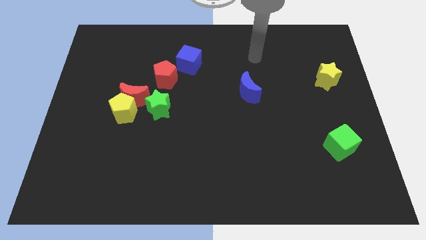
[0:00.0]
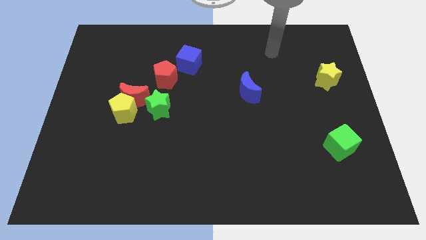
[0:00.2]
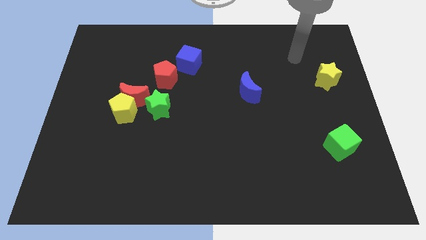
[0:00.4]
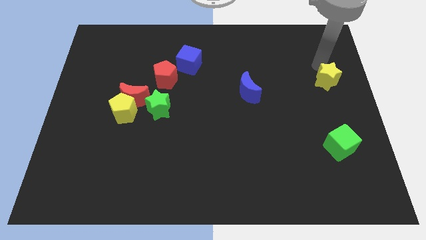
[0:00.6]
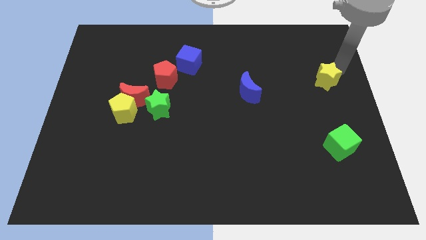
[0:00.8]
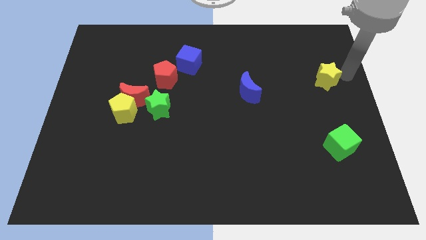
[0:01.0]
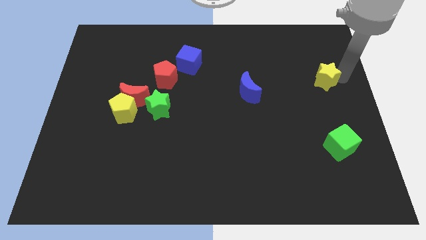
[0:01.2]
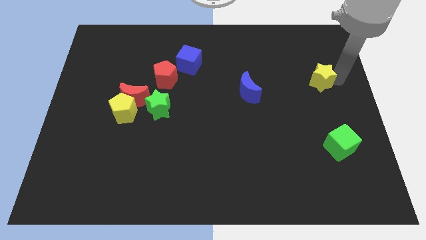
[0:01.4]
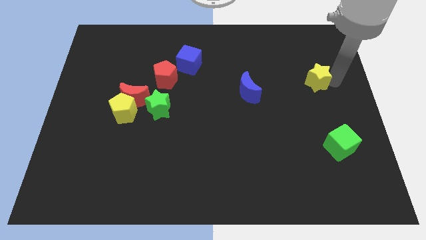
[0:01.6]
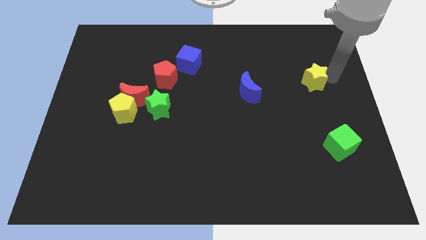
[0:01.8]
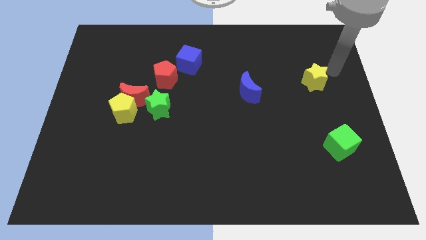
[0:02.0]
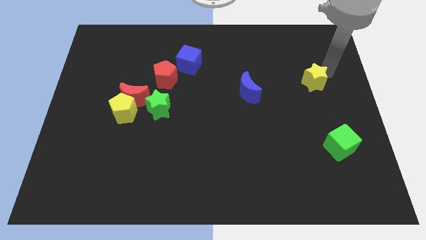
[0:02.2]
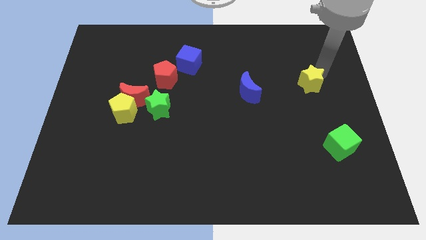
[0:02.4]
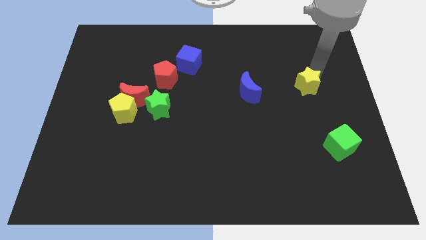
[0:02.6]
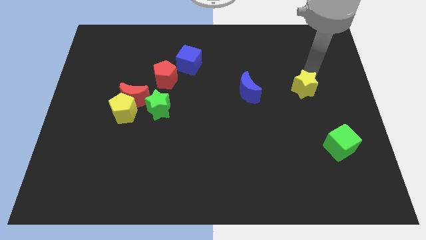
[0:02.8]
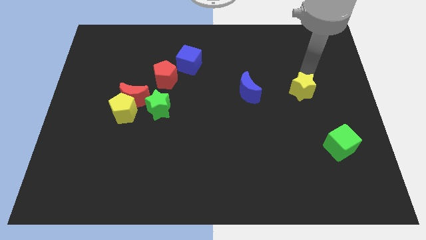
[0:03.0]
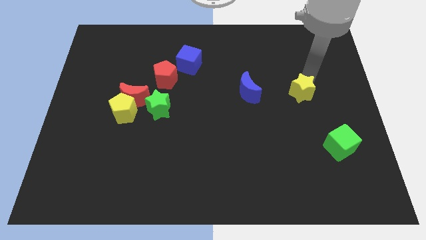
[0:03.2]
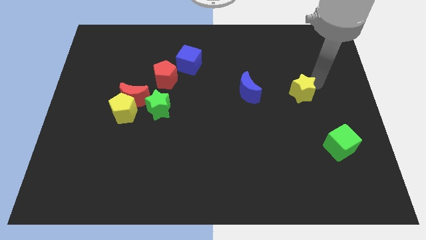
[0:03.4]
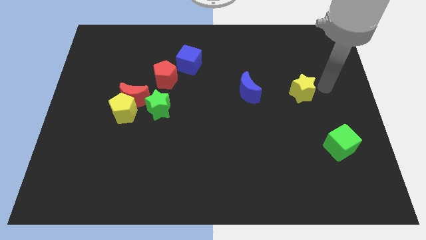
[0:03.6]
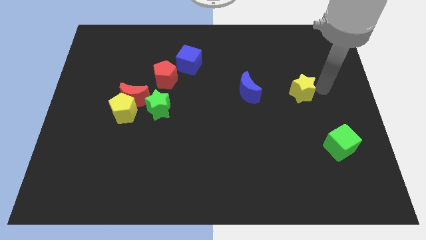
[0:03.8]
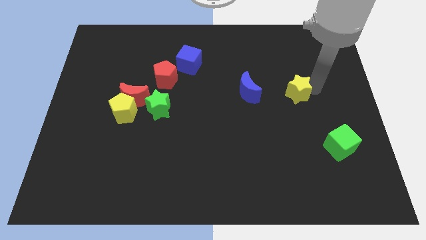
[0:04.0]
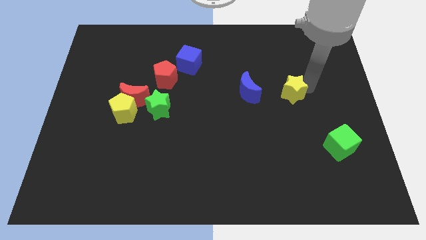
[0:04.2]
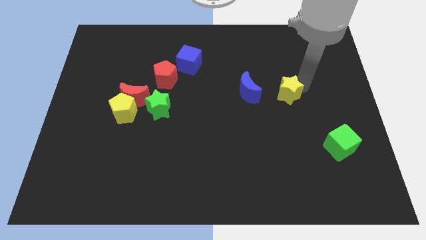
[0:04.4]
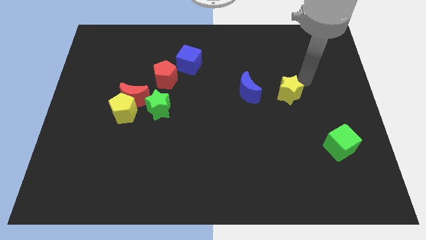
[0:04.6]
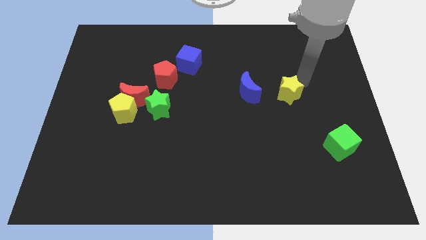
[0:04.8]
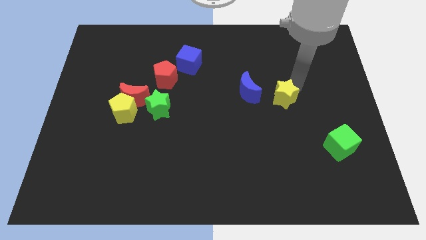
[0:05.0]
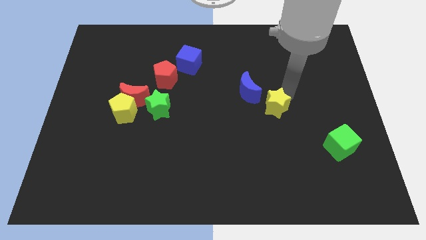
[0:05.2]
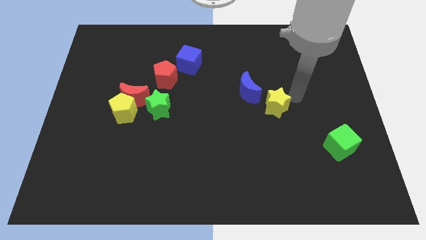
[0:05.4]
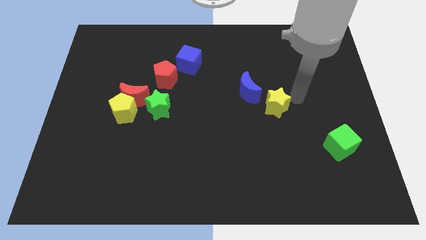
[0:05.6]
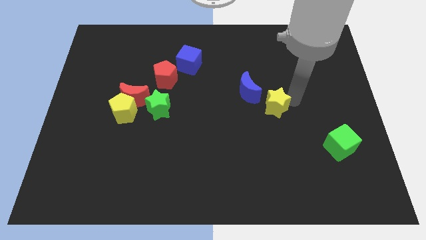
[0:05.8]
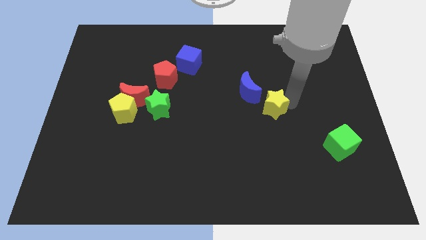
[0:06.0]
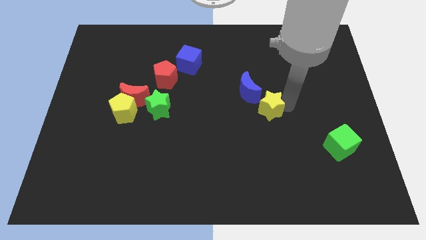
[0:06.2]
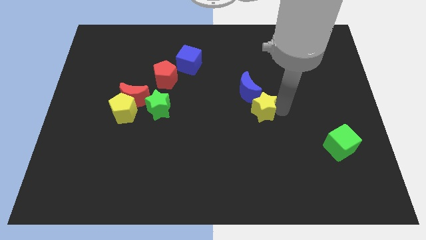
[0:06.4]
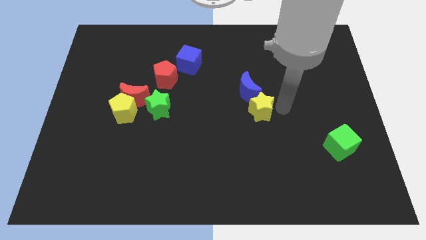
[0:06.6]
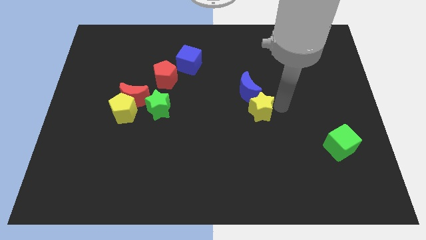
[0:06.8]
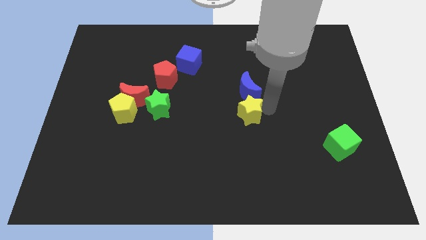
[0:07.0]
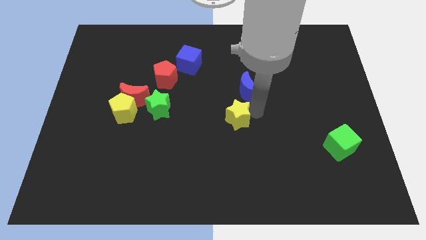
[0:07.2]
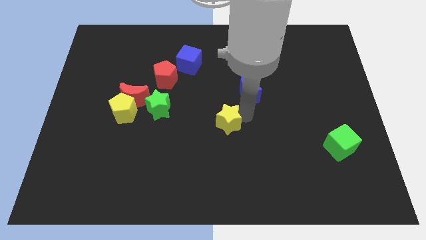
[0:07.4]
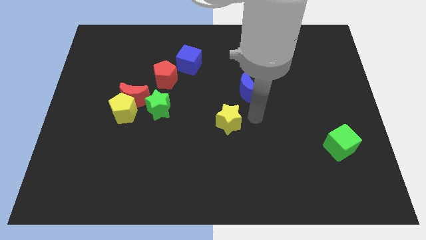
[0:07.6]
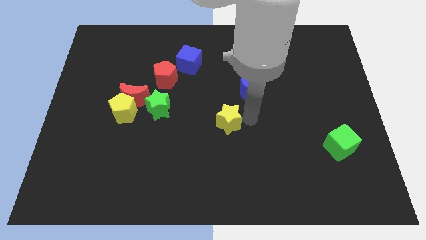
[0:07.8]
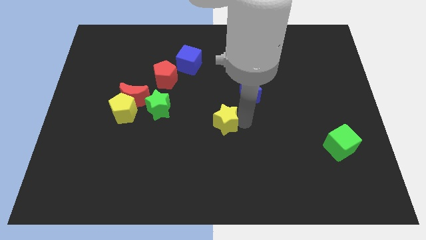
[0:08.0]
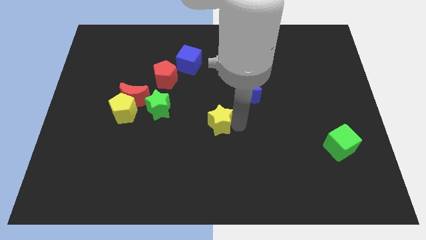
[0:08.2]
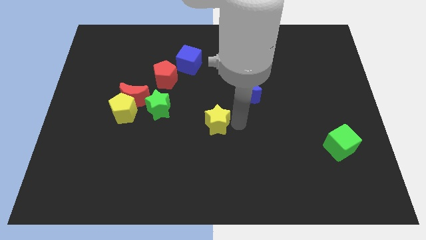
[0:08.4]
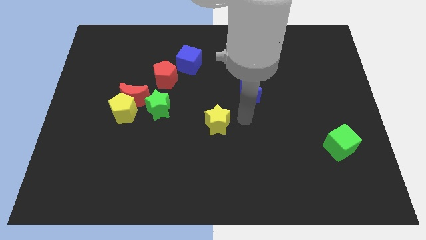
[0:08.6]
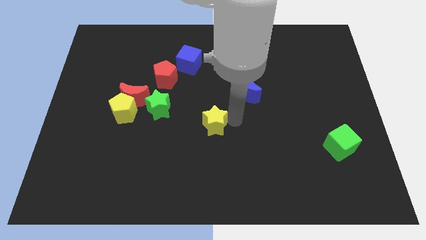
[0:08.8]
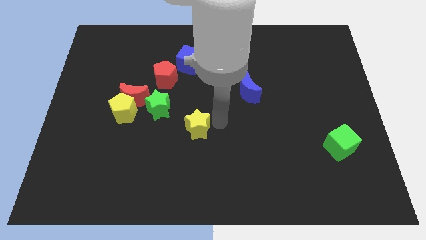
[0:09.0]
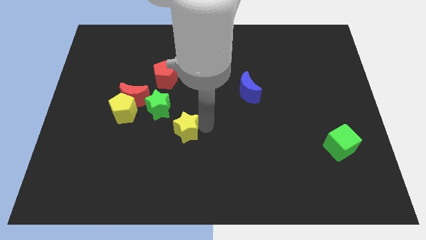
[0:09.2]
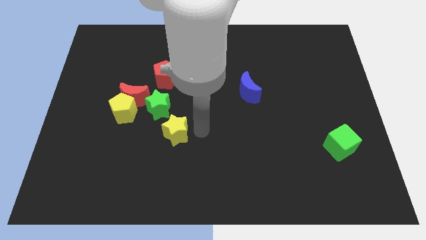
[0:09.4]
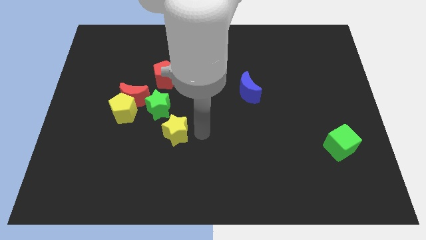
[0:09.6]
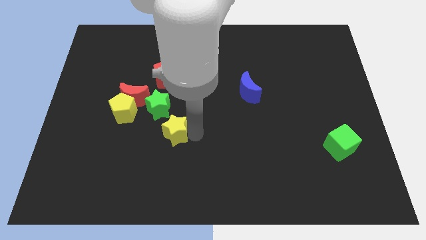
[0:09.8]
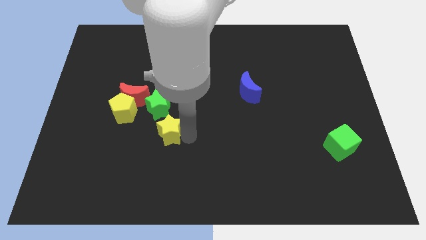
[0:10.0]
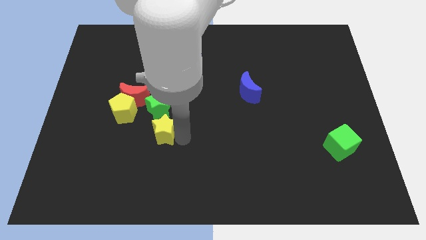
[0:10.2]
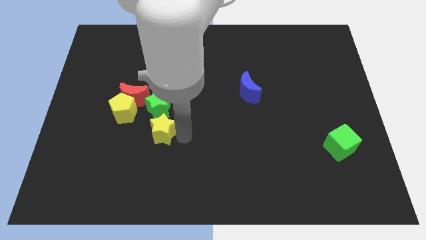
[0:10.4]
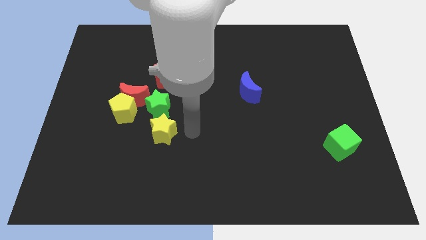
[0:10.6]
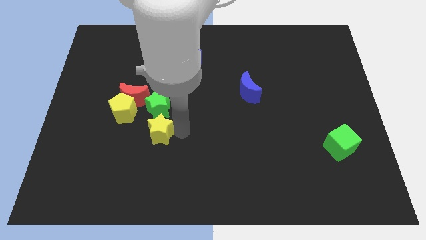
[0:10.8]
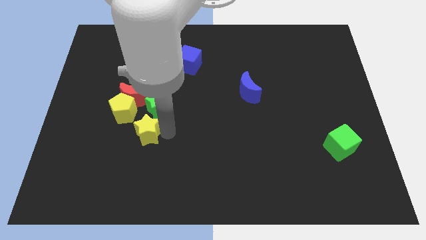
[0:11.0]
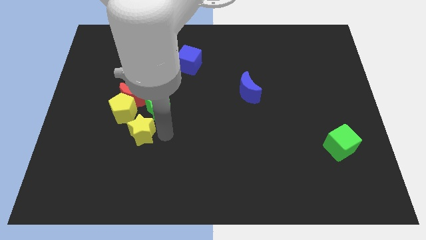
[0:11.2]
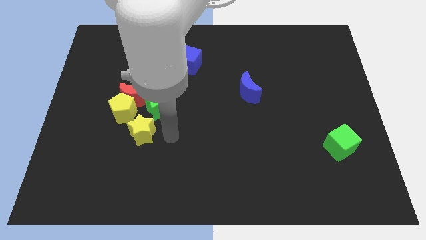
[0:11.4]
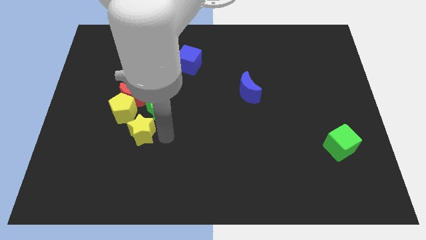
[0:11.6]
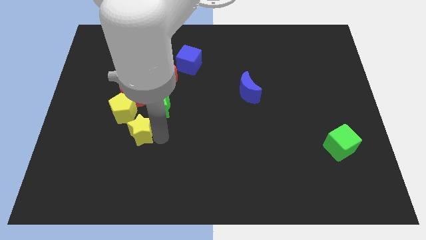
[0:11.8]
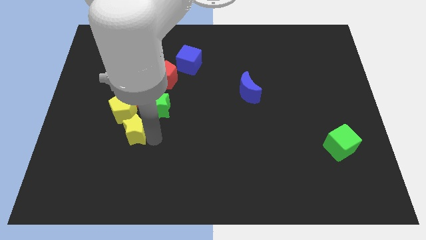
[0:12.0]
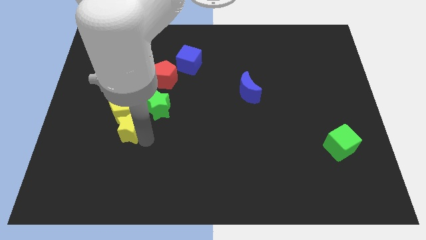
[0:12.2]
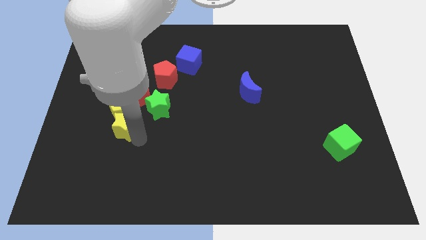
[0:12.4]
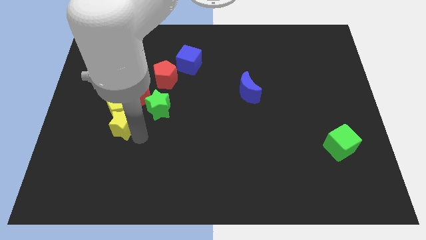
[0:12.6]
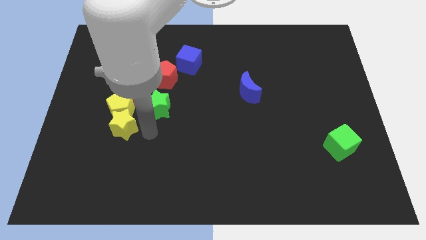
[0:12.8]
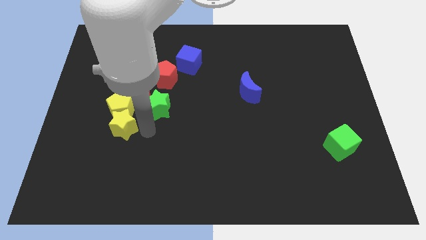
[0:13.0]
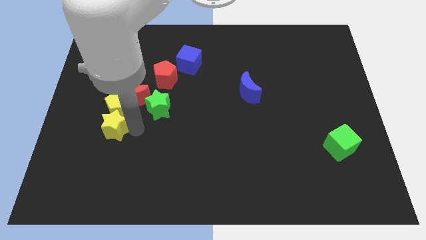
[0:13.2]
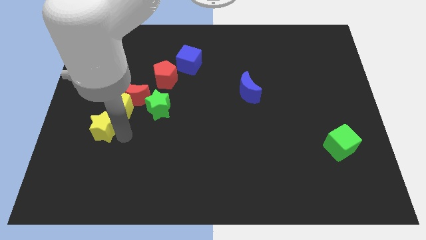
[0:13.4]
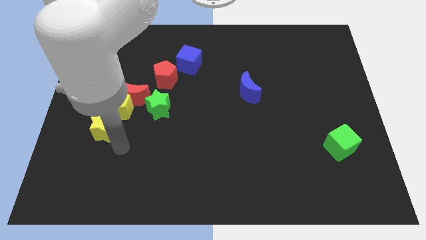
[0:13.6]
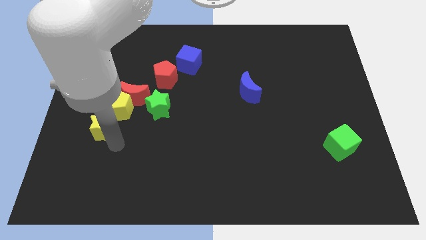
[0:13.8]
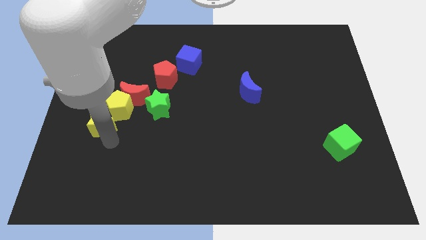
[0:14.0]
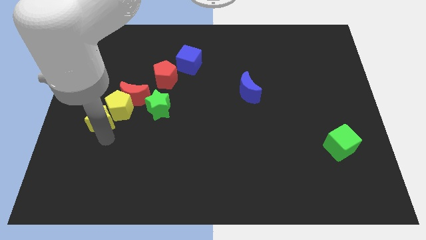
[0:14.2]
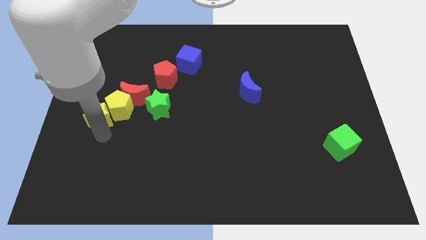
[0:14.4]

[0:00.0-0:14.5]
slide the yellow star to the left side of the board
